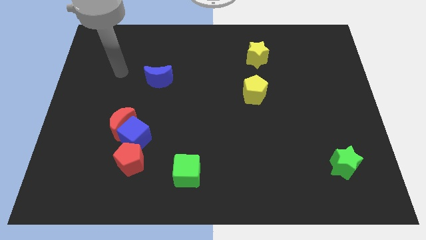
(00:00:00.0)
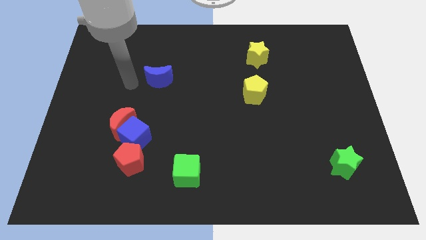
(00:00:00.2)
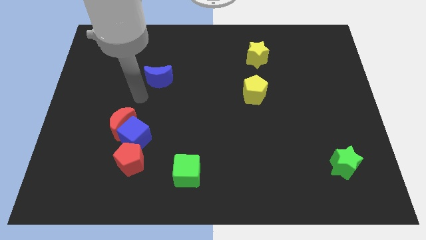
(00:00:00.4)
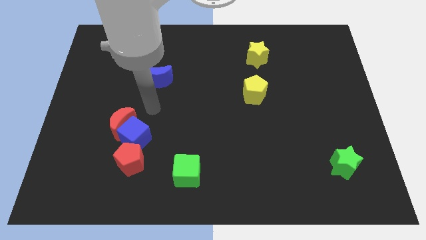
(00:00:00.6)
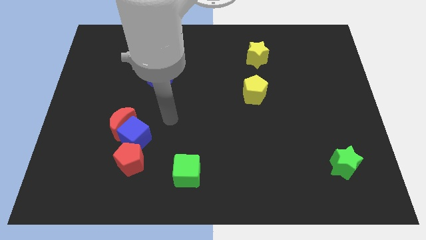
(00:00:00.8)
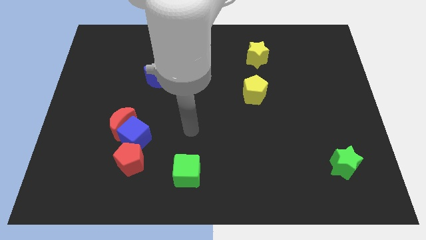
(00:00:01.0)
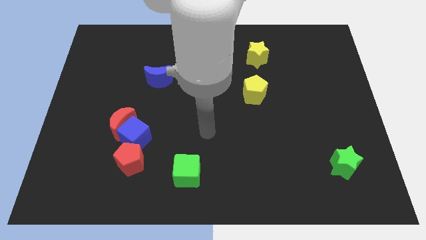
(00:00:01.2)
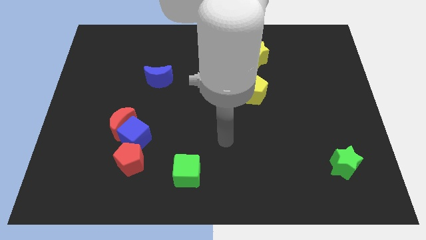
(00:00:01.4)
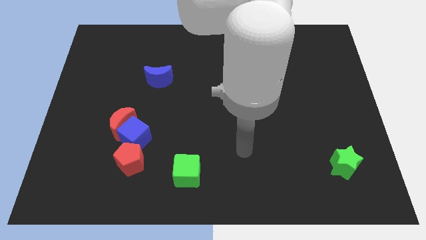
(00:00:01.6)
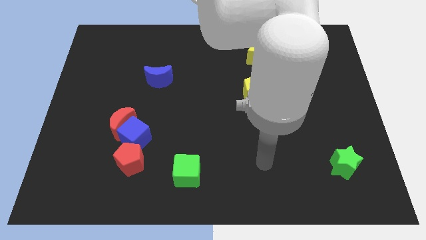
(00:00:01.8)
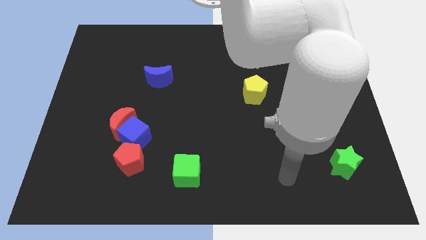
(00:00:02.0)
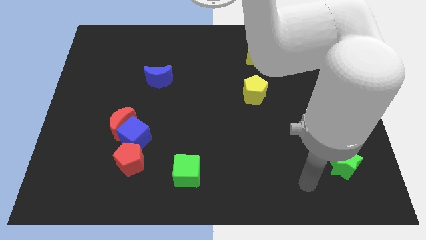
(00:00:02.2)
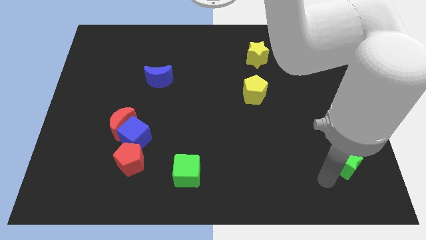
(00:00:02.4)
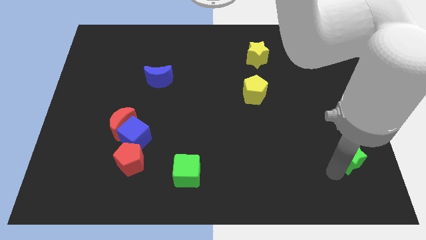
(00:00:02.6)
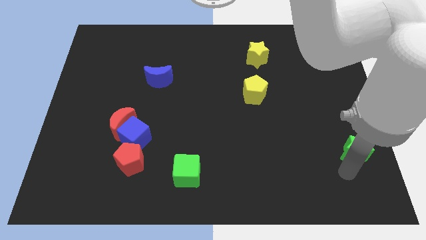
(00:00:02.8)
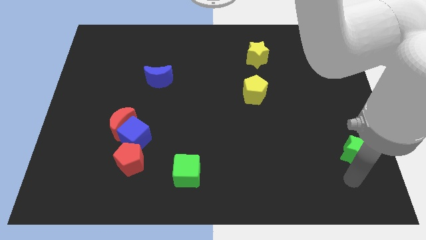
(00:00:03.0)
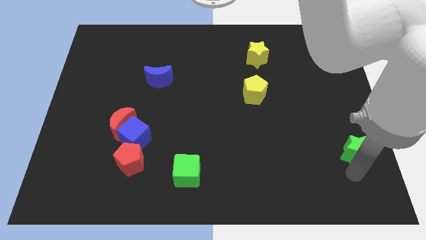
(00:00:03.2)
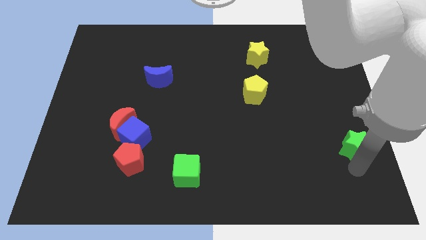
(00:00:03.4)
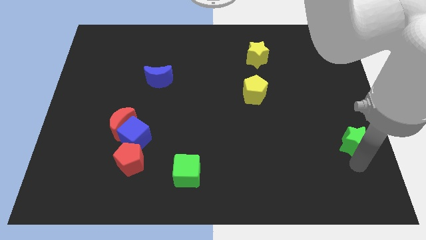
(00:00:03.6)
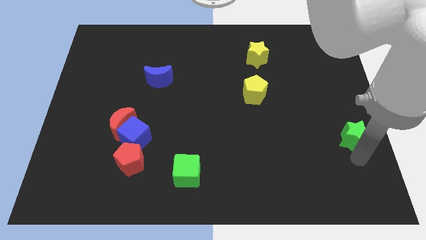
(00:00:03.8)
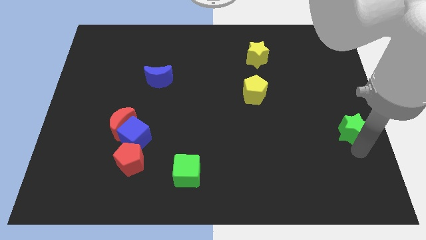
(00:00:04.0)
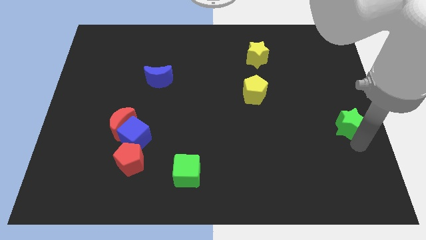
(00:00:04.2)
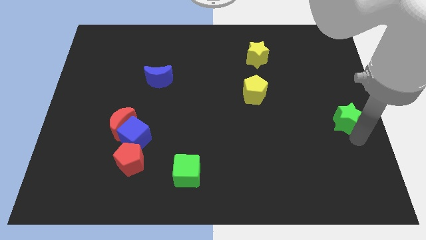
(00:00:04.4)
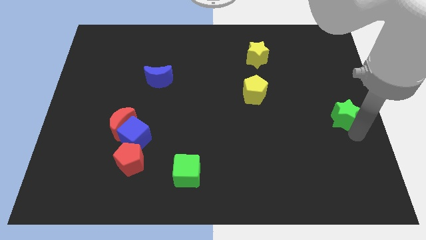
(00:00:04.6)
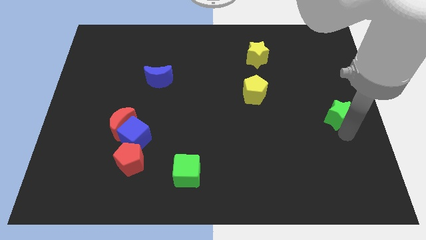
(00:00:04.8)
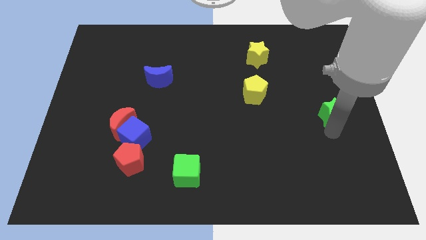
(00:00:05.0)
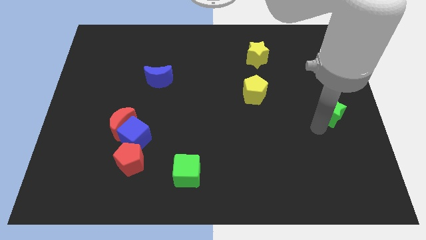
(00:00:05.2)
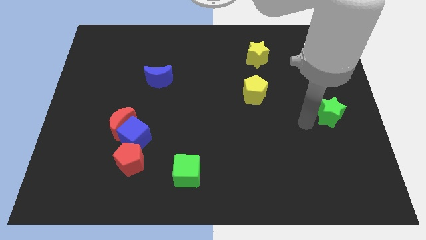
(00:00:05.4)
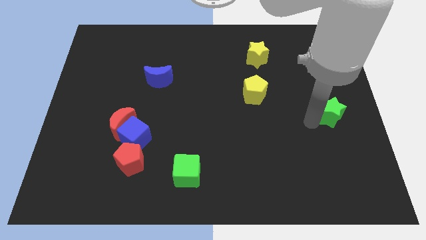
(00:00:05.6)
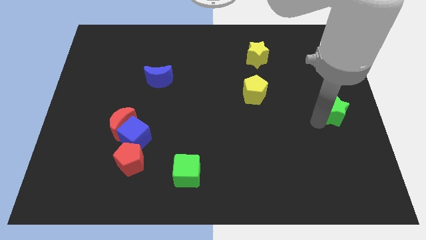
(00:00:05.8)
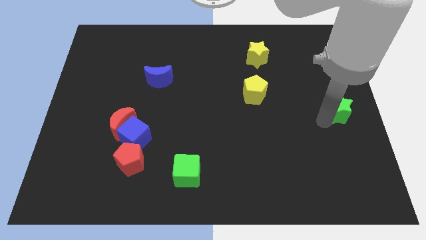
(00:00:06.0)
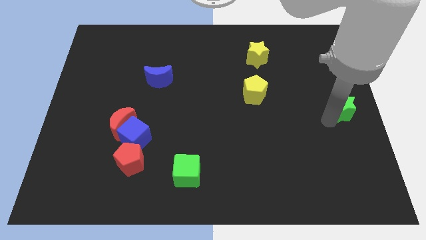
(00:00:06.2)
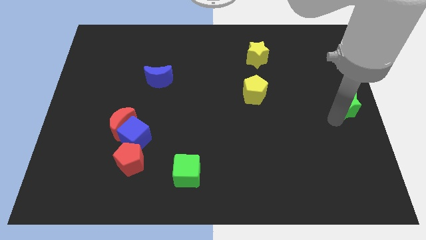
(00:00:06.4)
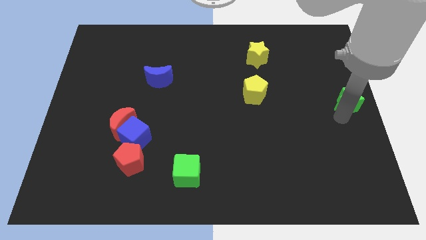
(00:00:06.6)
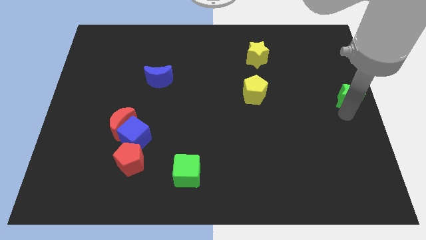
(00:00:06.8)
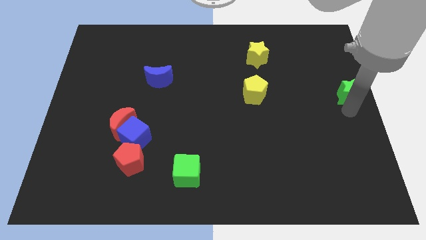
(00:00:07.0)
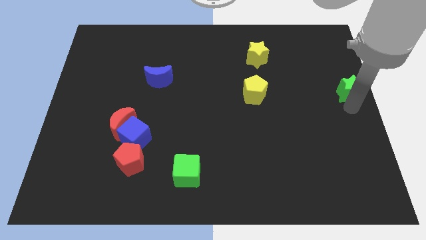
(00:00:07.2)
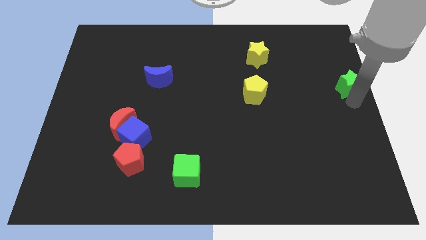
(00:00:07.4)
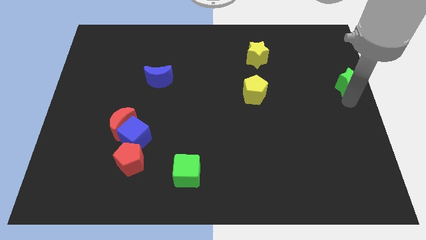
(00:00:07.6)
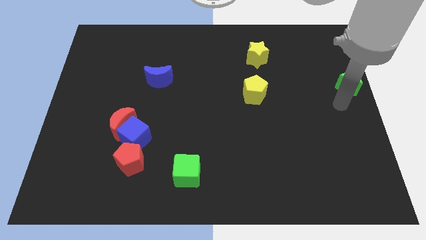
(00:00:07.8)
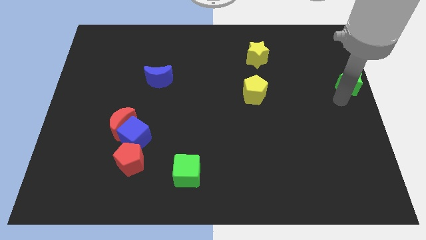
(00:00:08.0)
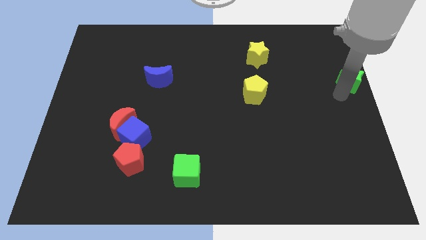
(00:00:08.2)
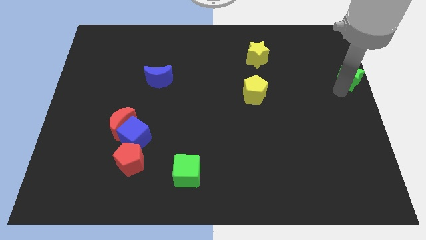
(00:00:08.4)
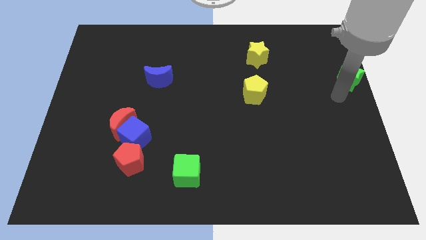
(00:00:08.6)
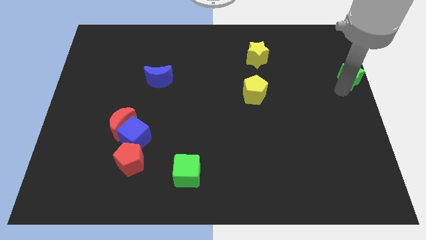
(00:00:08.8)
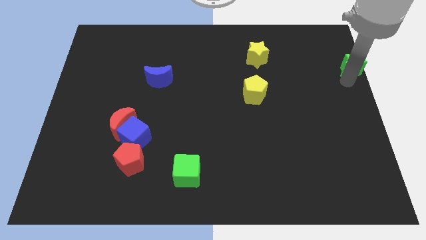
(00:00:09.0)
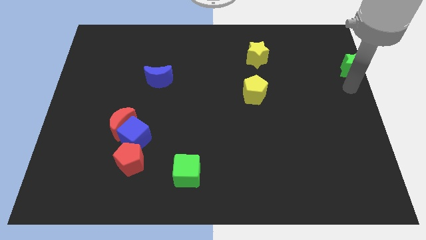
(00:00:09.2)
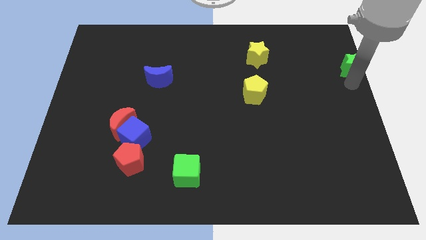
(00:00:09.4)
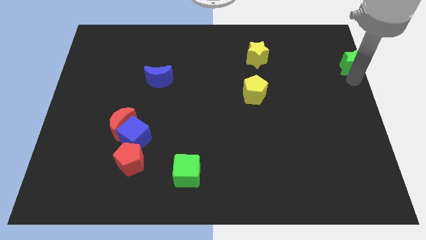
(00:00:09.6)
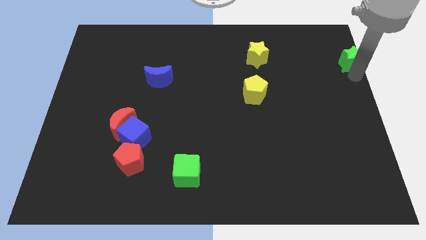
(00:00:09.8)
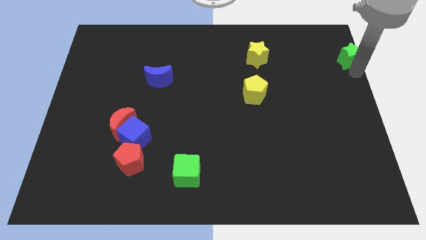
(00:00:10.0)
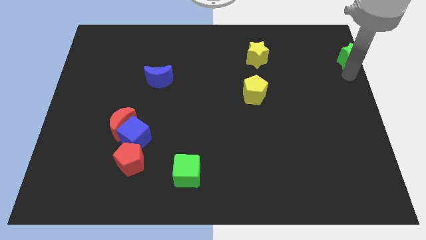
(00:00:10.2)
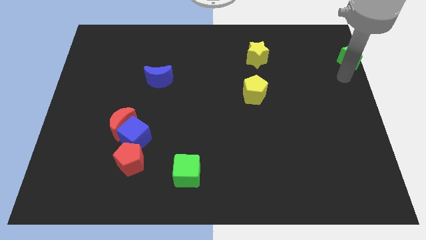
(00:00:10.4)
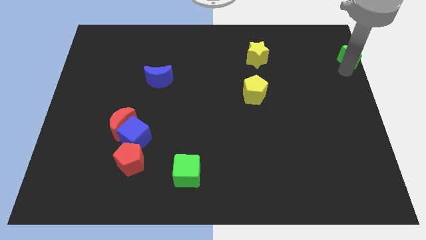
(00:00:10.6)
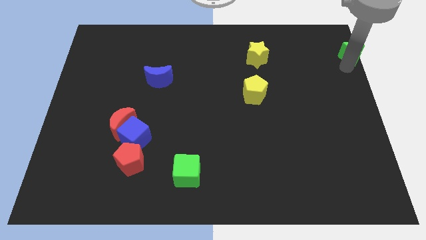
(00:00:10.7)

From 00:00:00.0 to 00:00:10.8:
put the green star to the upper right corner

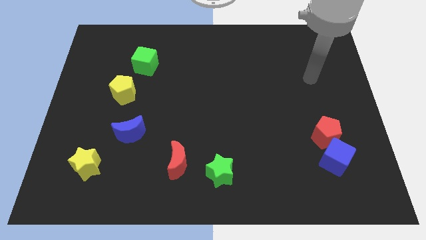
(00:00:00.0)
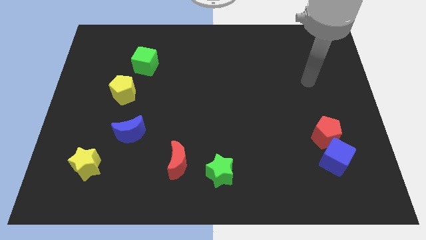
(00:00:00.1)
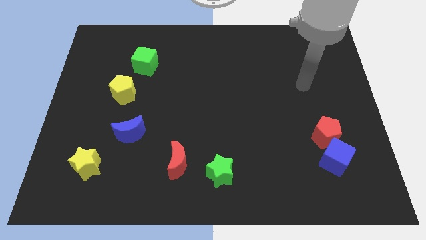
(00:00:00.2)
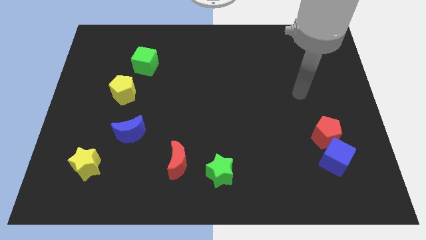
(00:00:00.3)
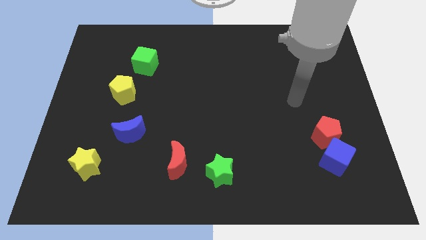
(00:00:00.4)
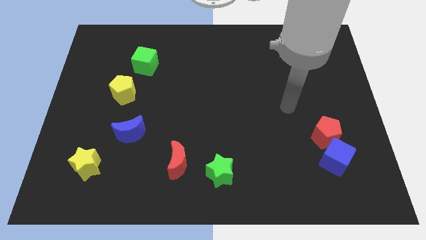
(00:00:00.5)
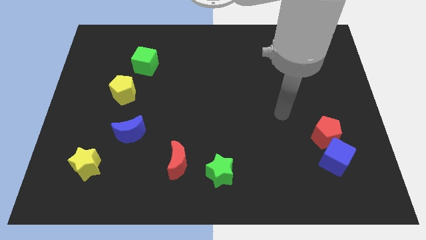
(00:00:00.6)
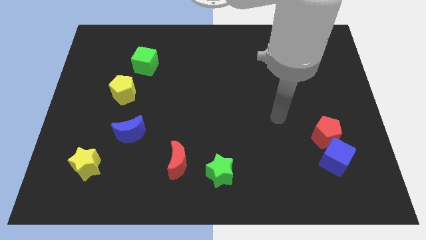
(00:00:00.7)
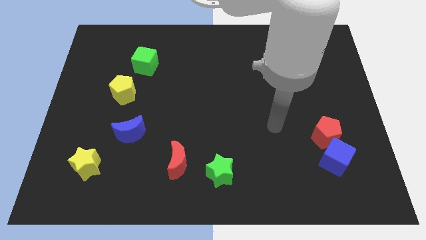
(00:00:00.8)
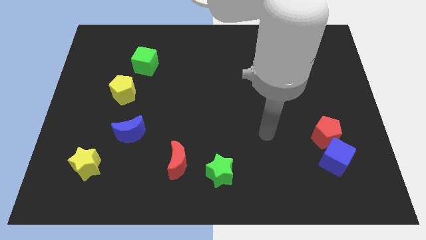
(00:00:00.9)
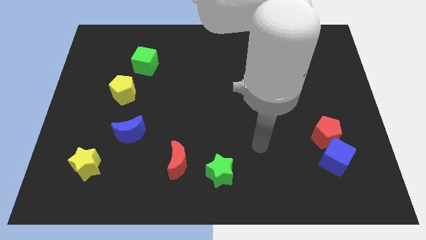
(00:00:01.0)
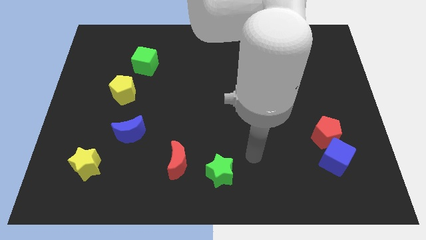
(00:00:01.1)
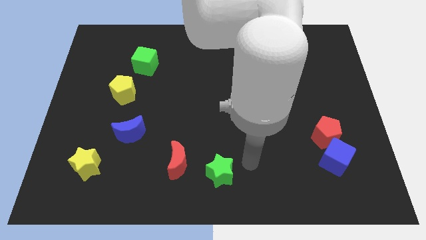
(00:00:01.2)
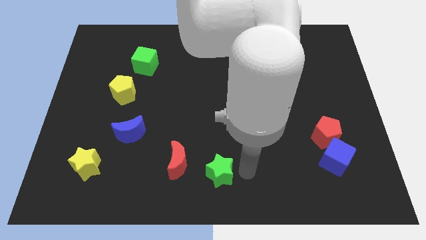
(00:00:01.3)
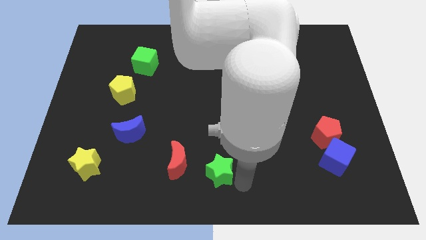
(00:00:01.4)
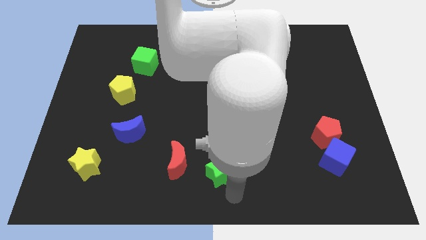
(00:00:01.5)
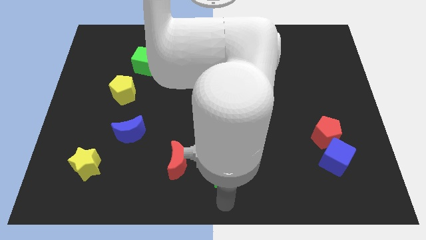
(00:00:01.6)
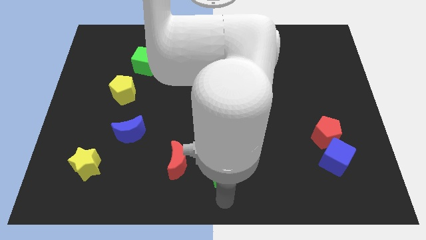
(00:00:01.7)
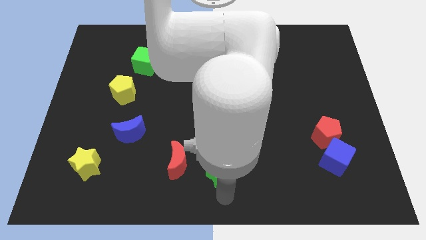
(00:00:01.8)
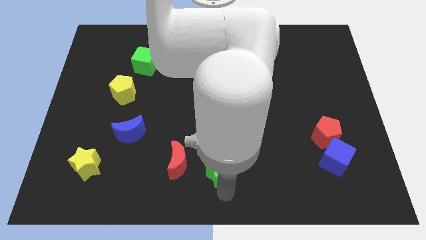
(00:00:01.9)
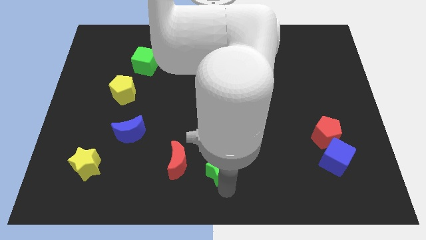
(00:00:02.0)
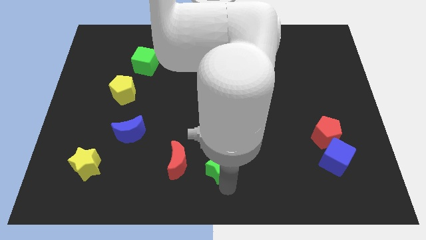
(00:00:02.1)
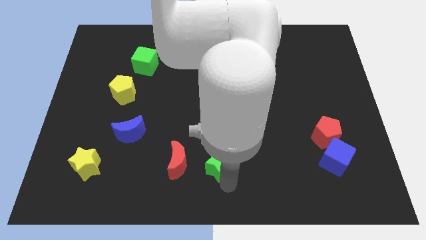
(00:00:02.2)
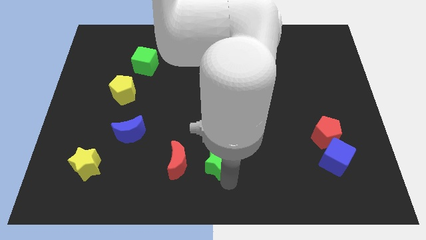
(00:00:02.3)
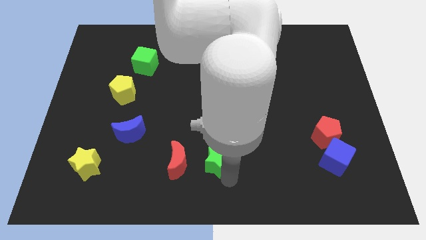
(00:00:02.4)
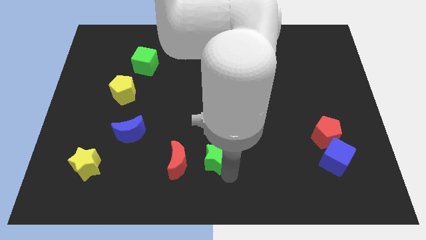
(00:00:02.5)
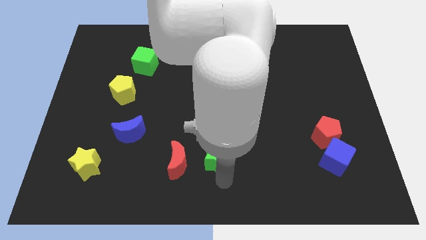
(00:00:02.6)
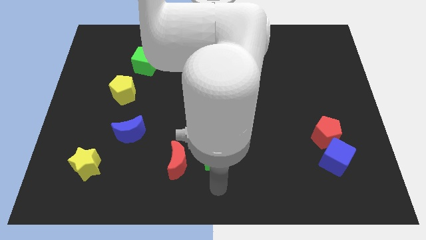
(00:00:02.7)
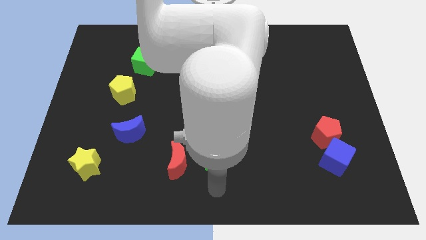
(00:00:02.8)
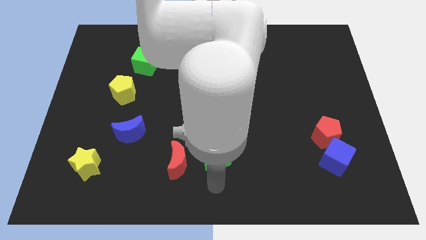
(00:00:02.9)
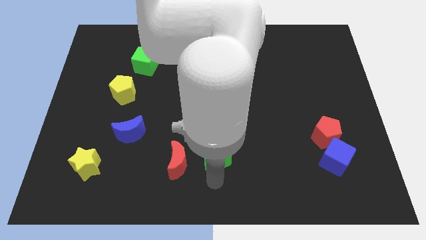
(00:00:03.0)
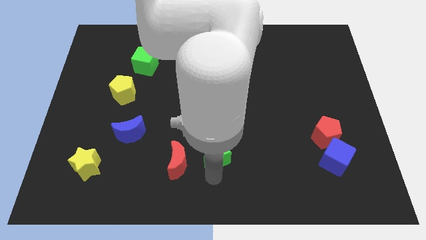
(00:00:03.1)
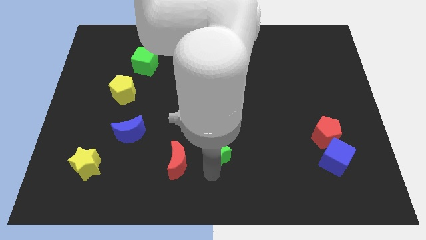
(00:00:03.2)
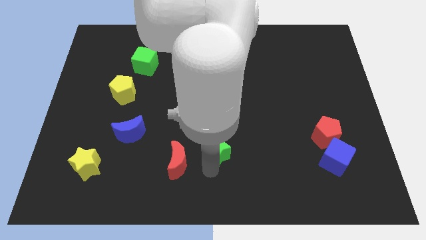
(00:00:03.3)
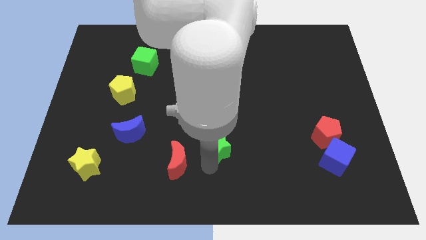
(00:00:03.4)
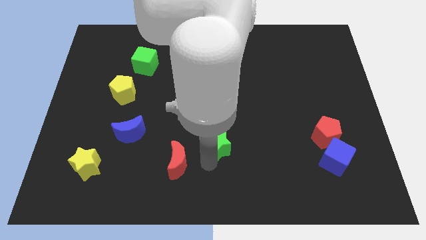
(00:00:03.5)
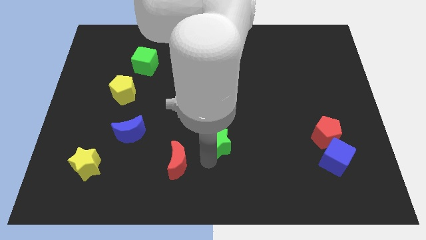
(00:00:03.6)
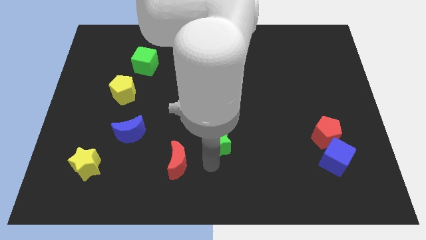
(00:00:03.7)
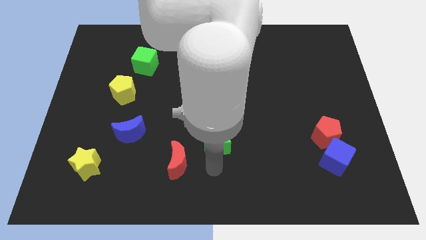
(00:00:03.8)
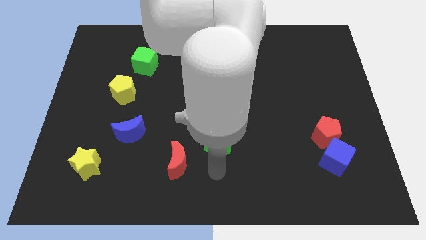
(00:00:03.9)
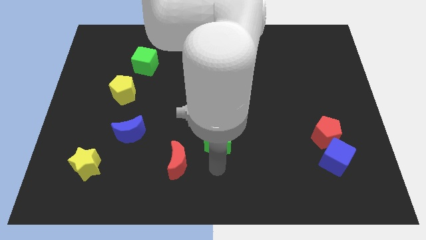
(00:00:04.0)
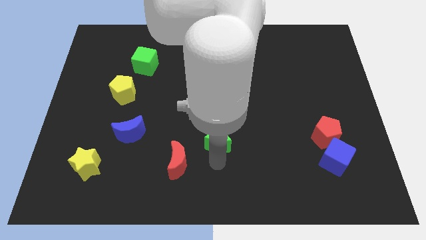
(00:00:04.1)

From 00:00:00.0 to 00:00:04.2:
move the green star to the middle of the board
